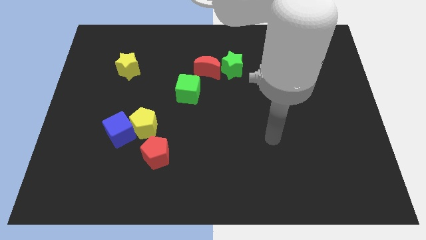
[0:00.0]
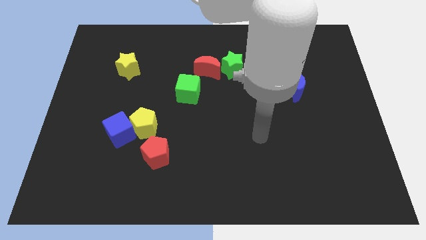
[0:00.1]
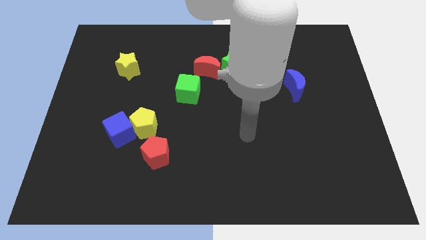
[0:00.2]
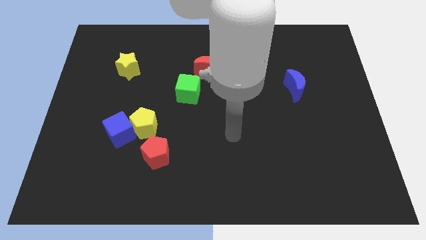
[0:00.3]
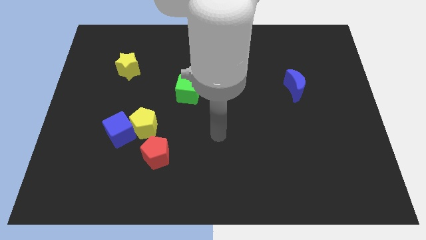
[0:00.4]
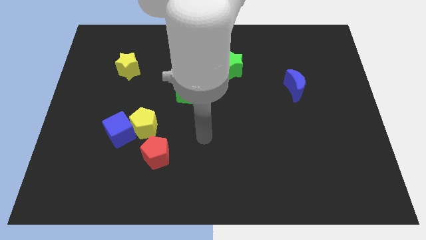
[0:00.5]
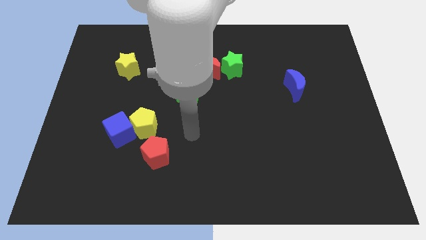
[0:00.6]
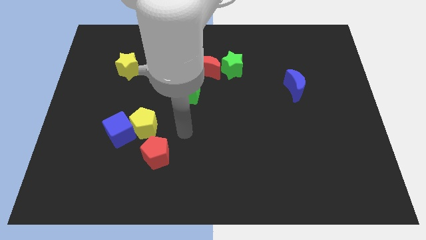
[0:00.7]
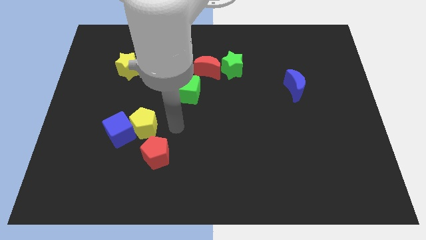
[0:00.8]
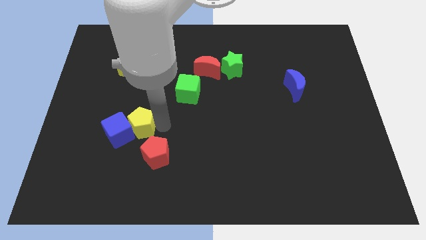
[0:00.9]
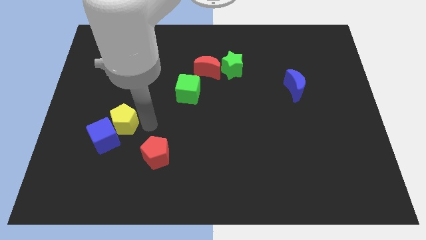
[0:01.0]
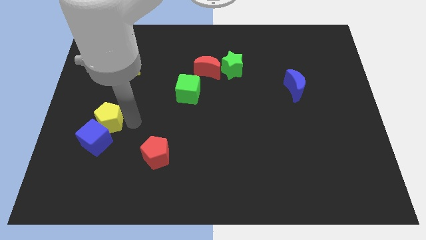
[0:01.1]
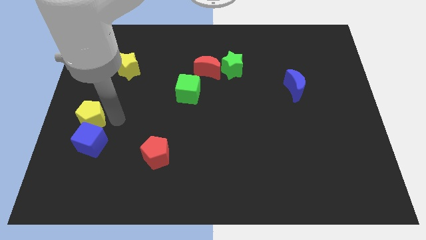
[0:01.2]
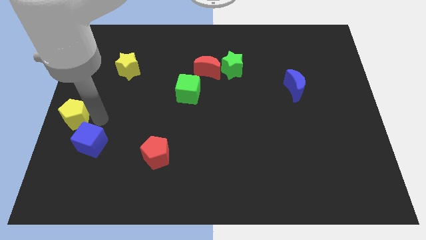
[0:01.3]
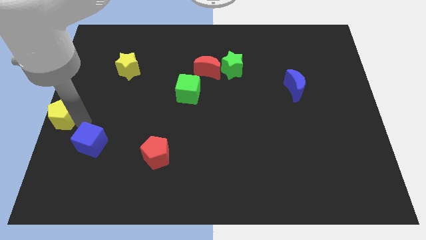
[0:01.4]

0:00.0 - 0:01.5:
pull the blue cube apart from the yellow pentagon

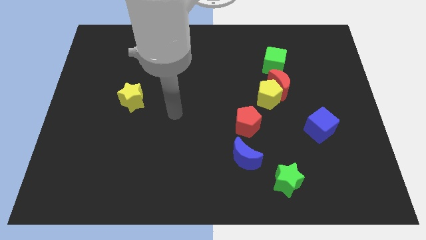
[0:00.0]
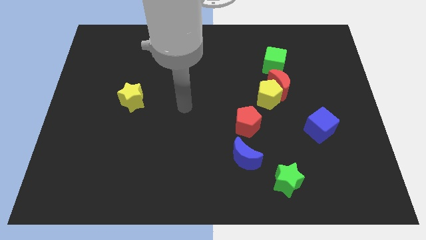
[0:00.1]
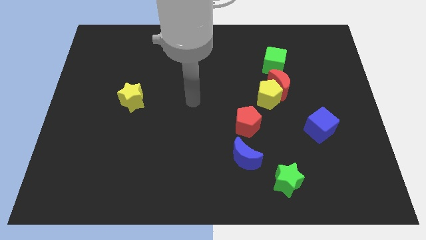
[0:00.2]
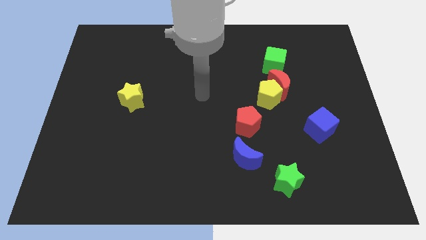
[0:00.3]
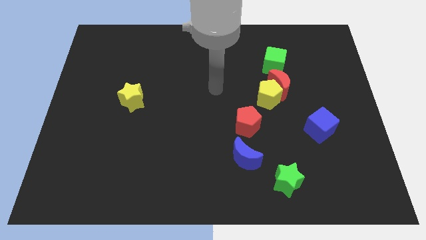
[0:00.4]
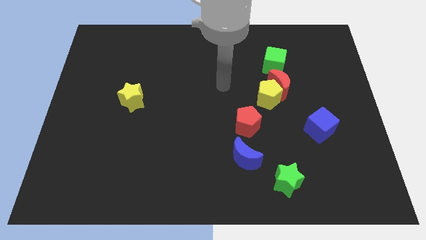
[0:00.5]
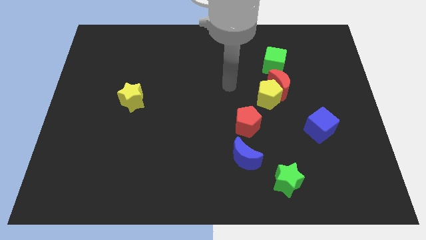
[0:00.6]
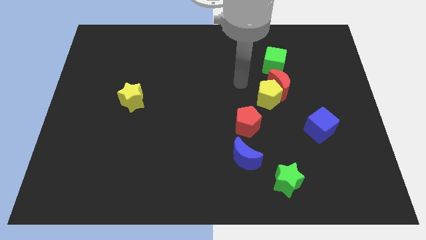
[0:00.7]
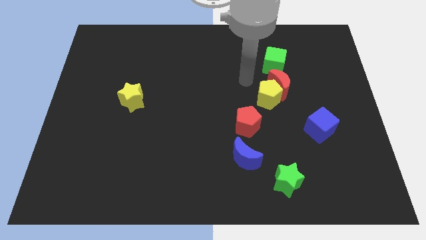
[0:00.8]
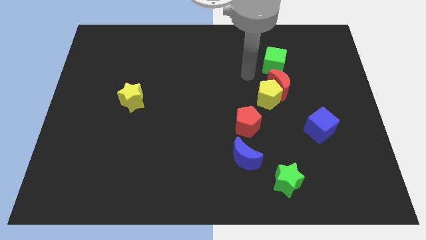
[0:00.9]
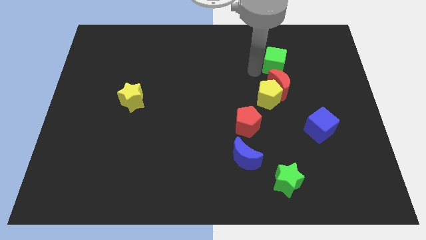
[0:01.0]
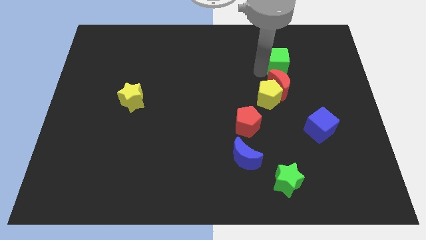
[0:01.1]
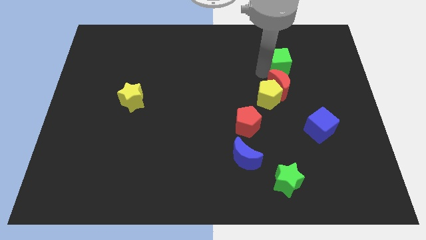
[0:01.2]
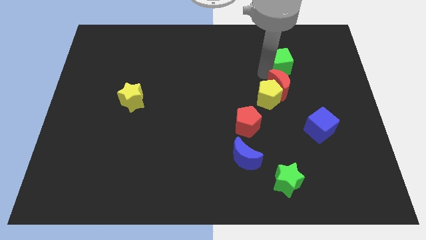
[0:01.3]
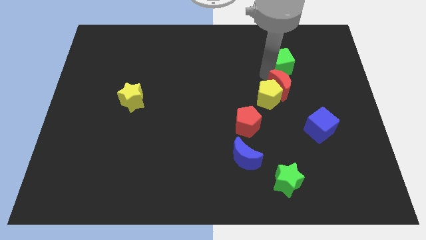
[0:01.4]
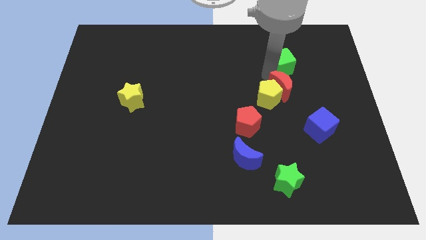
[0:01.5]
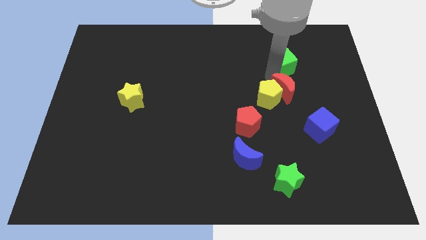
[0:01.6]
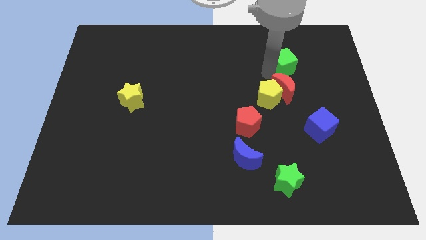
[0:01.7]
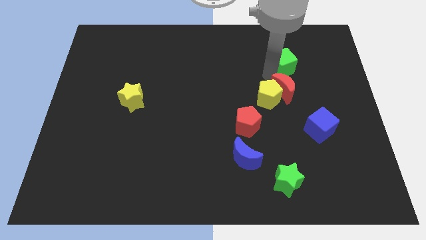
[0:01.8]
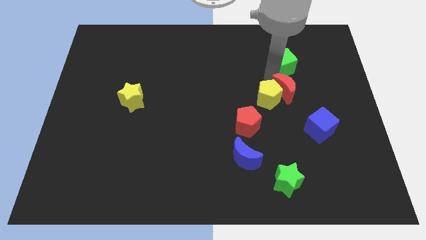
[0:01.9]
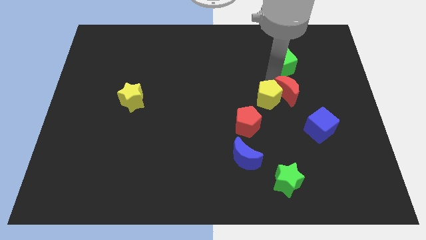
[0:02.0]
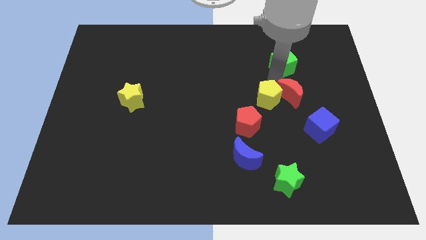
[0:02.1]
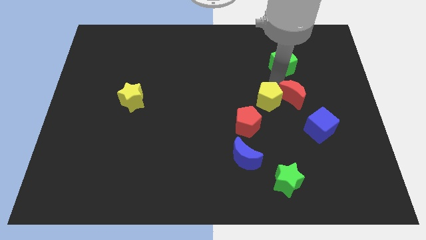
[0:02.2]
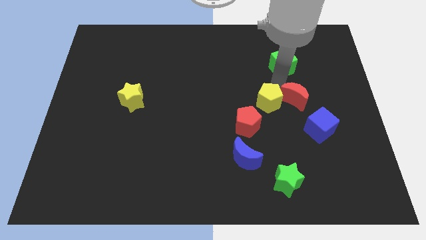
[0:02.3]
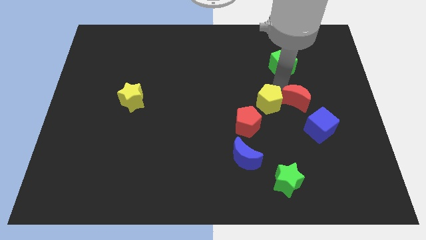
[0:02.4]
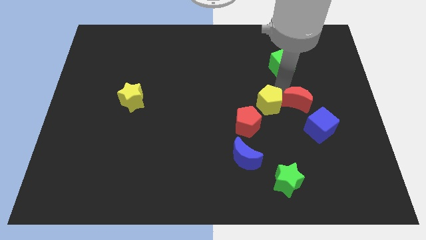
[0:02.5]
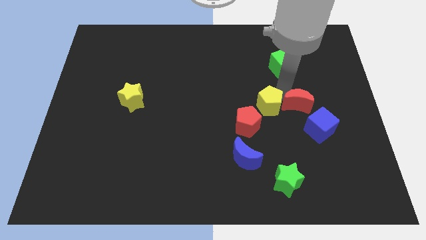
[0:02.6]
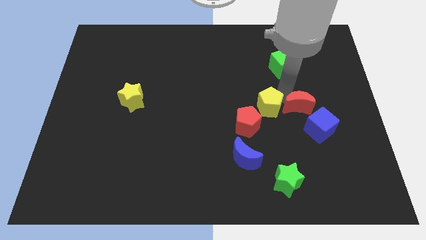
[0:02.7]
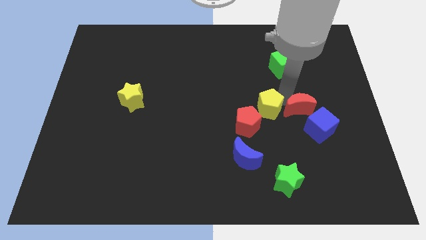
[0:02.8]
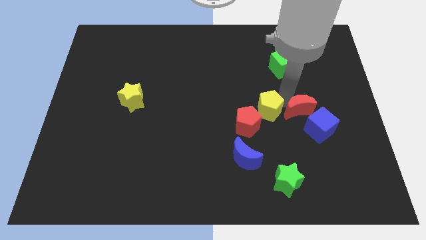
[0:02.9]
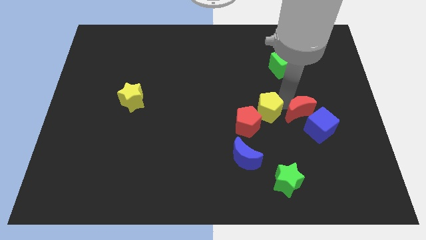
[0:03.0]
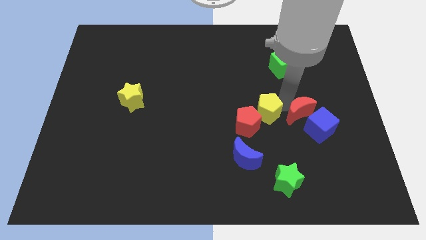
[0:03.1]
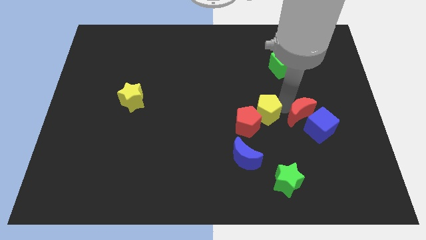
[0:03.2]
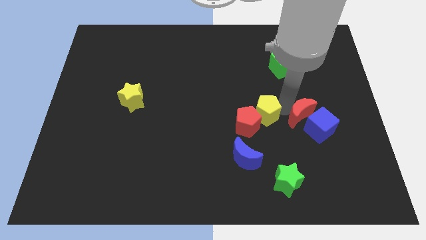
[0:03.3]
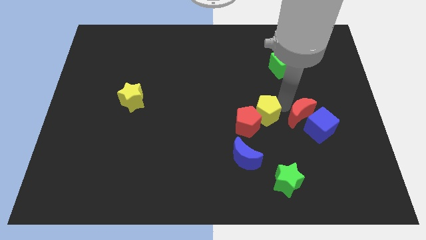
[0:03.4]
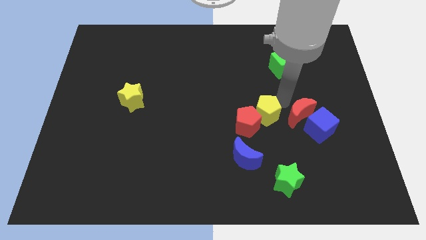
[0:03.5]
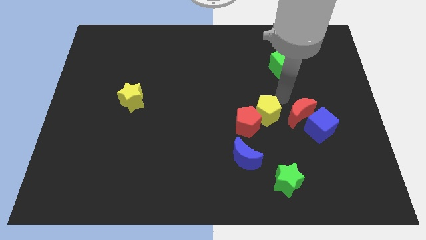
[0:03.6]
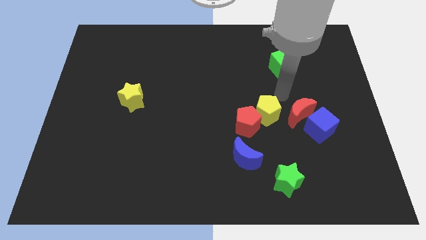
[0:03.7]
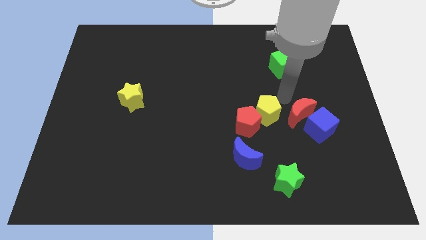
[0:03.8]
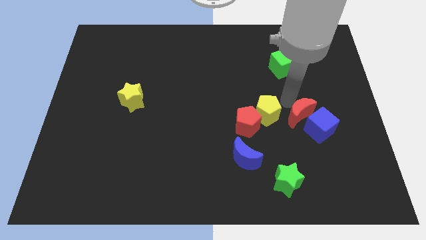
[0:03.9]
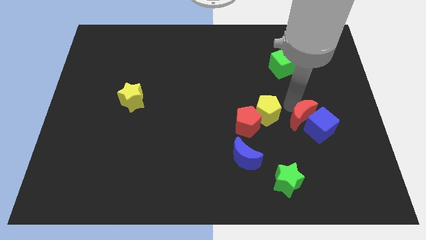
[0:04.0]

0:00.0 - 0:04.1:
separate the red moon from the yellow pentagon and green cube

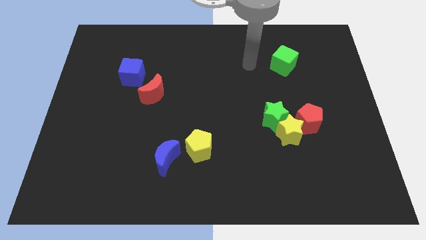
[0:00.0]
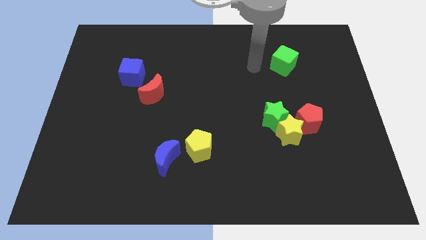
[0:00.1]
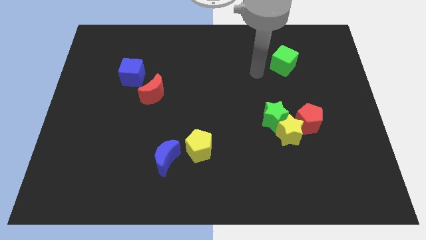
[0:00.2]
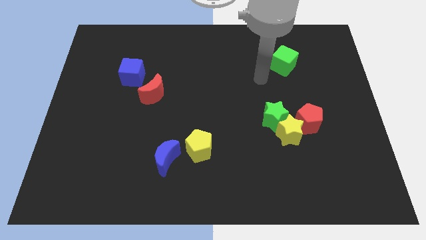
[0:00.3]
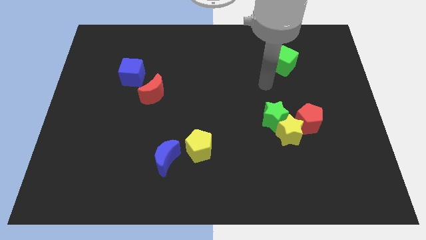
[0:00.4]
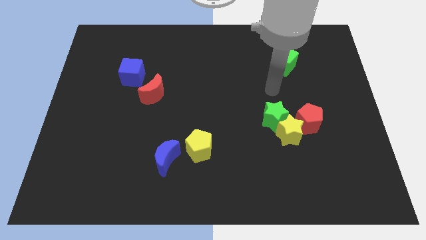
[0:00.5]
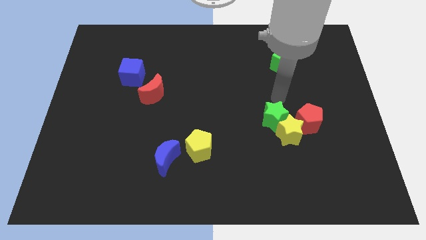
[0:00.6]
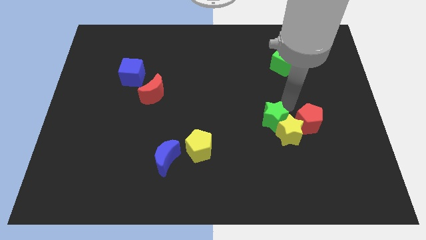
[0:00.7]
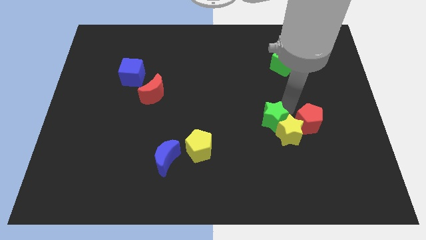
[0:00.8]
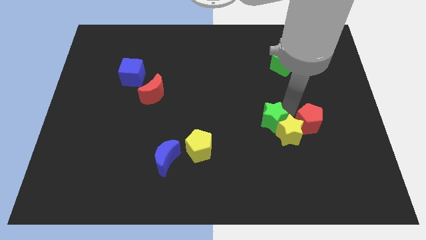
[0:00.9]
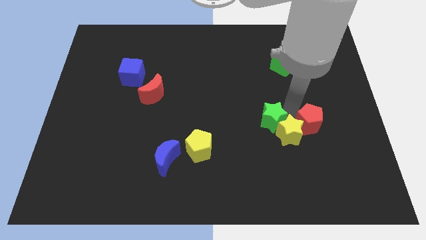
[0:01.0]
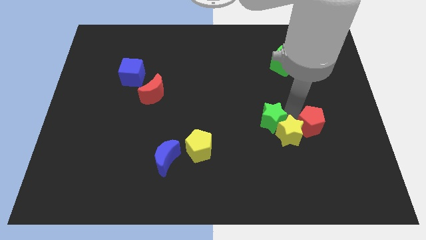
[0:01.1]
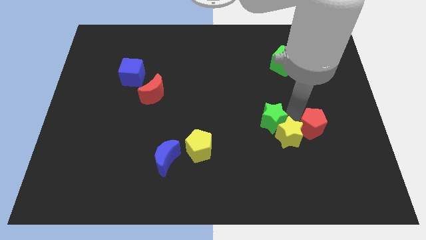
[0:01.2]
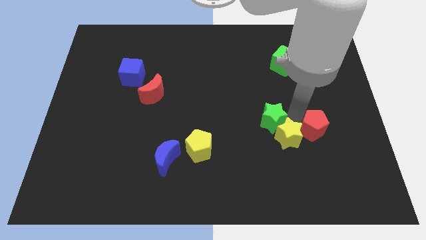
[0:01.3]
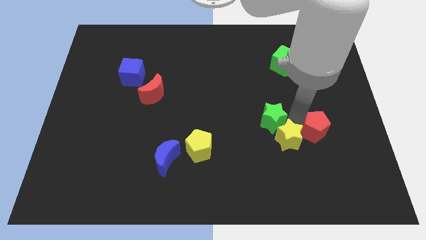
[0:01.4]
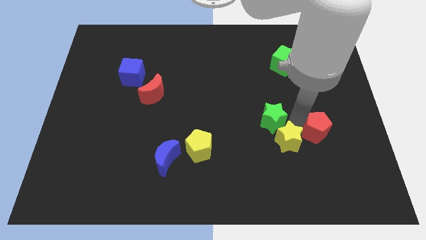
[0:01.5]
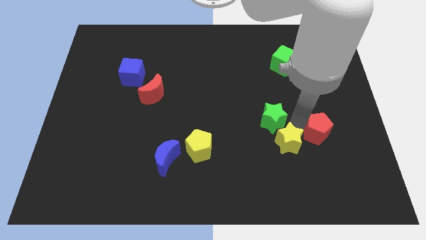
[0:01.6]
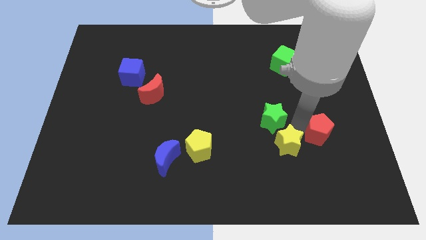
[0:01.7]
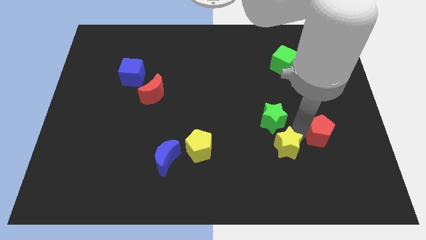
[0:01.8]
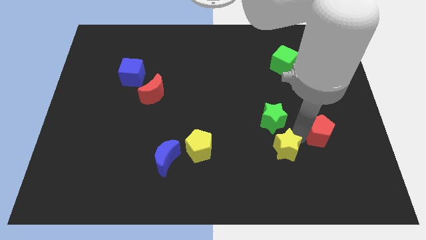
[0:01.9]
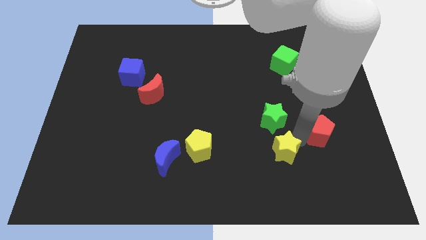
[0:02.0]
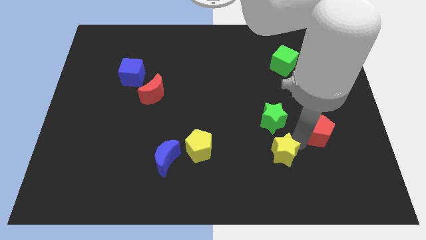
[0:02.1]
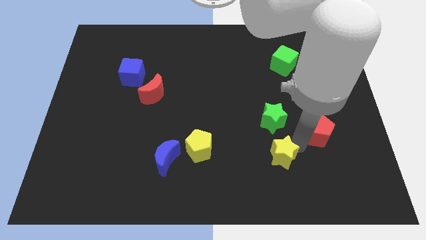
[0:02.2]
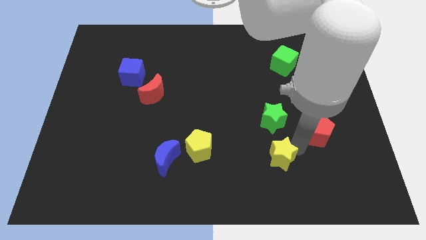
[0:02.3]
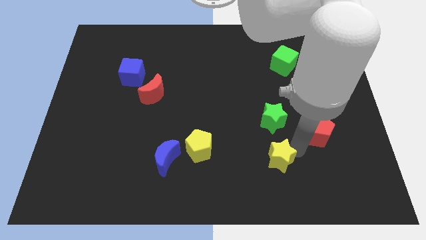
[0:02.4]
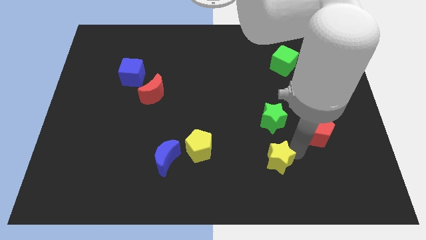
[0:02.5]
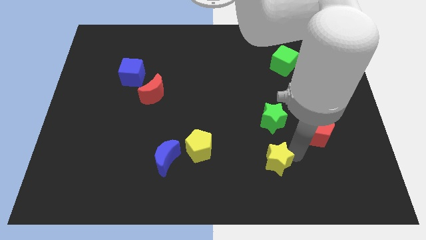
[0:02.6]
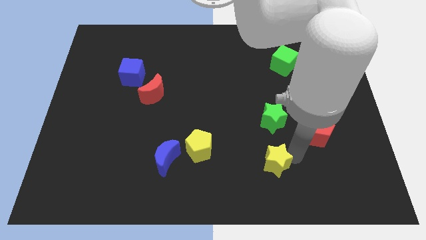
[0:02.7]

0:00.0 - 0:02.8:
pull the yellow star apart from the green star and red pentagon

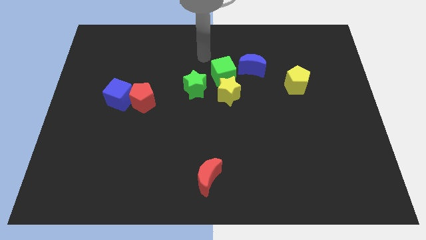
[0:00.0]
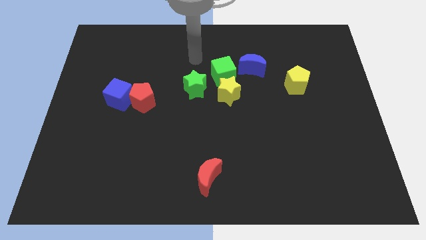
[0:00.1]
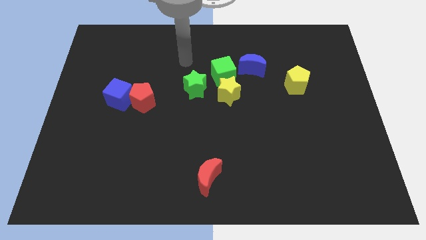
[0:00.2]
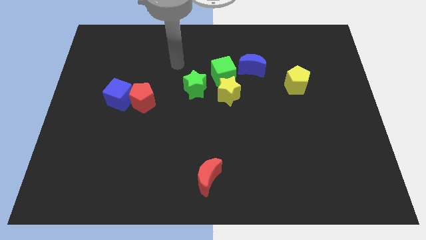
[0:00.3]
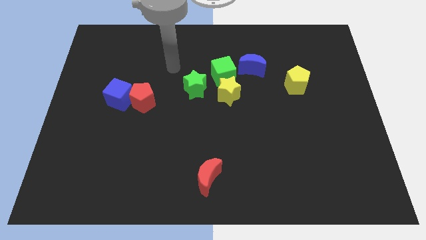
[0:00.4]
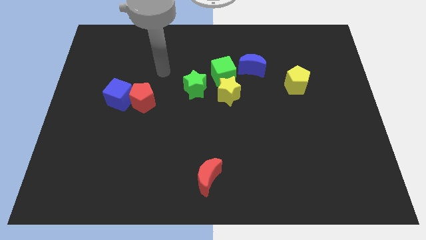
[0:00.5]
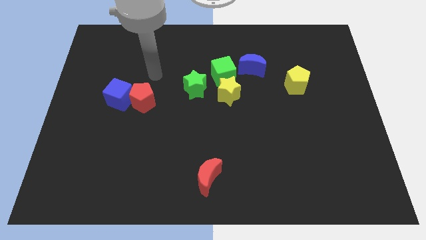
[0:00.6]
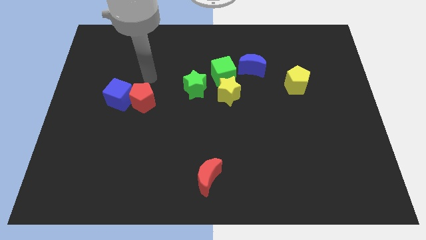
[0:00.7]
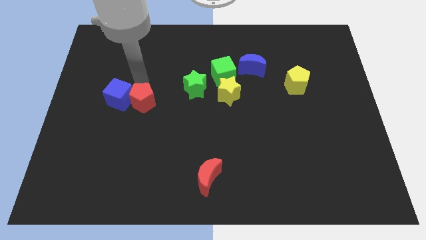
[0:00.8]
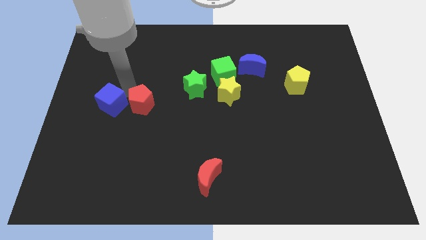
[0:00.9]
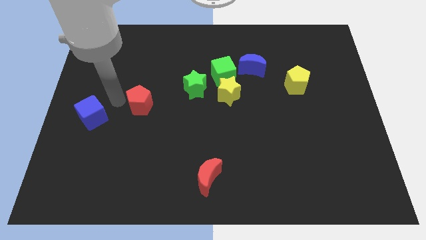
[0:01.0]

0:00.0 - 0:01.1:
pull the red pentagon apart from the blue cube

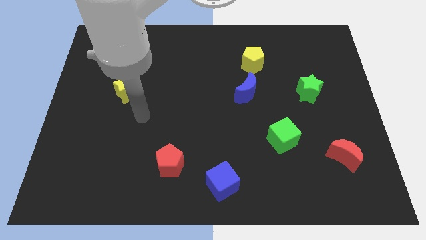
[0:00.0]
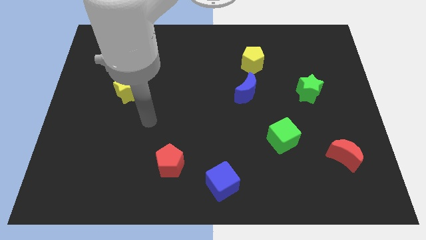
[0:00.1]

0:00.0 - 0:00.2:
separate the blue moon from the yellow pentagon
